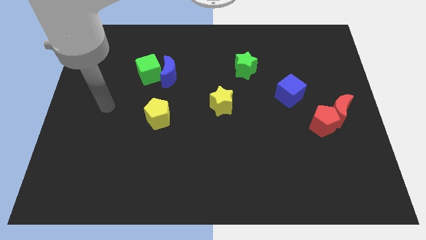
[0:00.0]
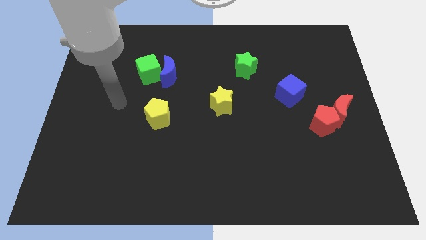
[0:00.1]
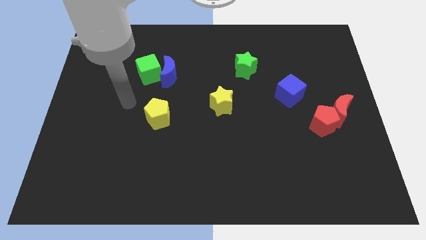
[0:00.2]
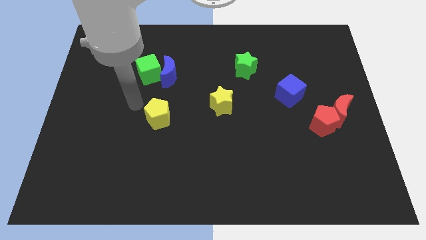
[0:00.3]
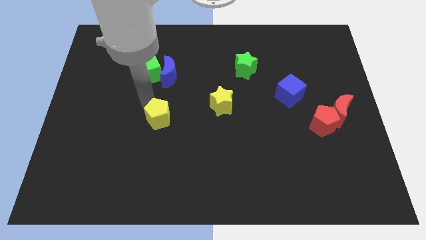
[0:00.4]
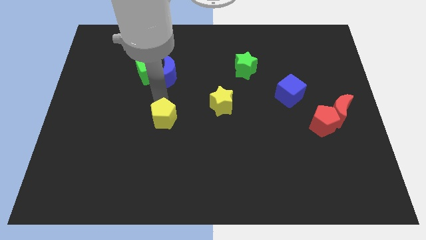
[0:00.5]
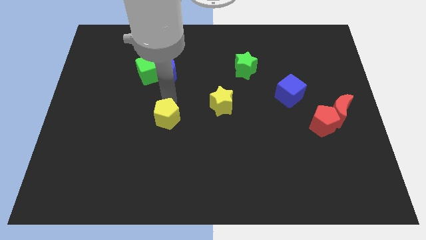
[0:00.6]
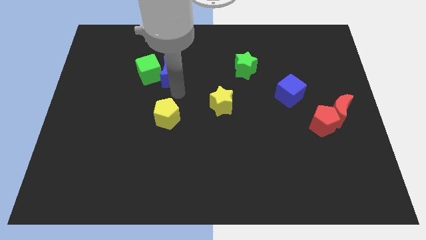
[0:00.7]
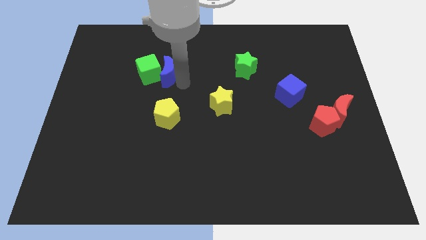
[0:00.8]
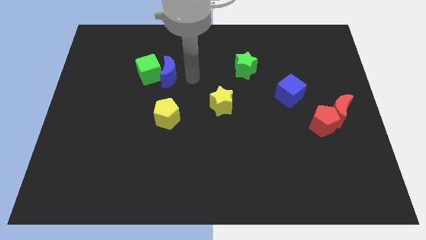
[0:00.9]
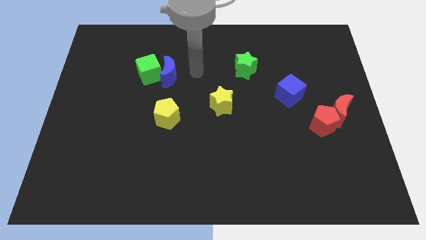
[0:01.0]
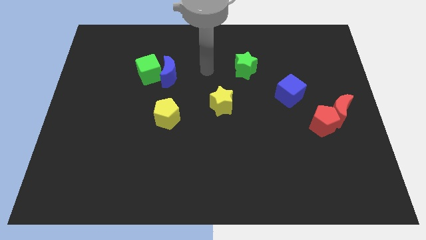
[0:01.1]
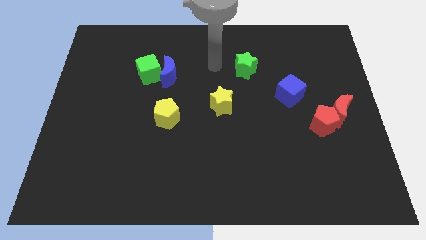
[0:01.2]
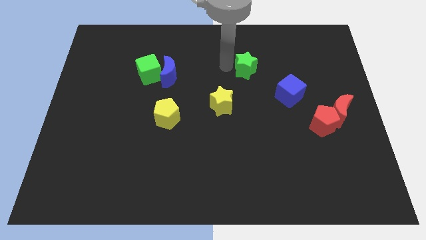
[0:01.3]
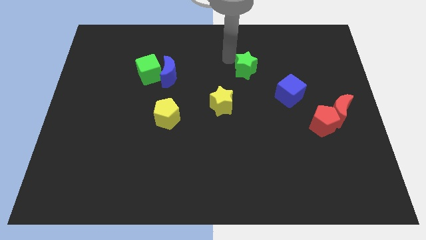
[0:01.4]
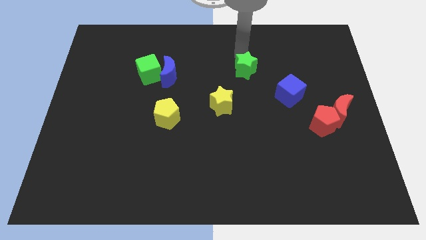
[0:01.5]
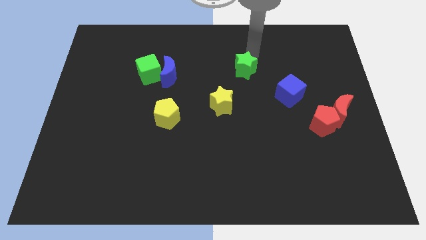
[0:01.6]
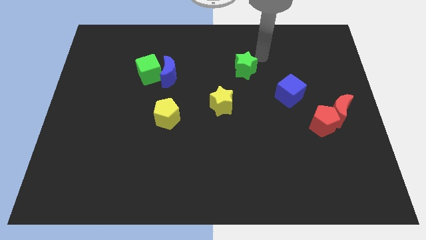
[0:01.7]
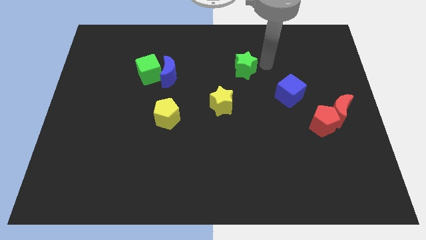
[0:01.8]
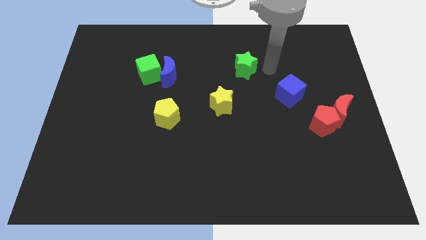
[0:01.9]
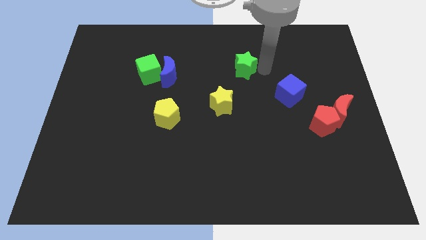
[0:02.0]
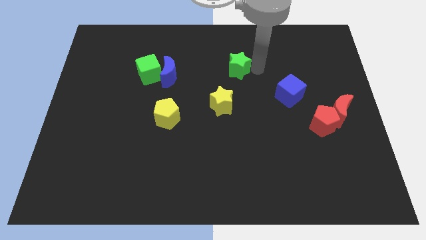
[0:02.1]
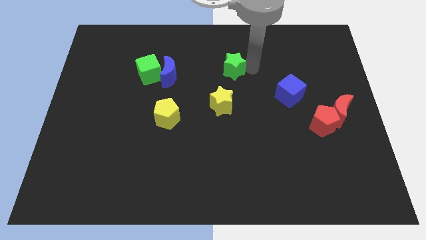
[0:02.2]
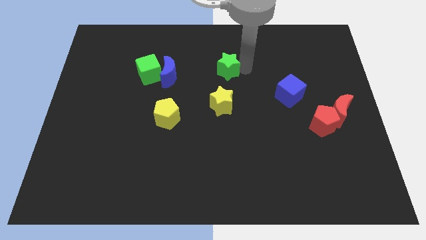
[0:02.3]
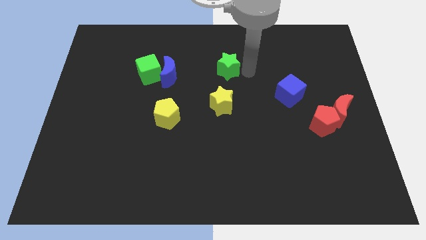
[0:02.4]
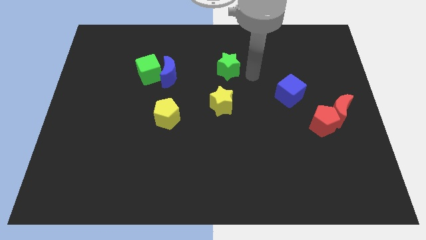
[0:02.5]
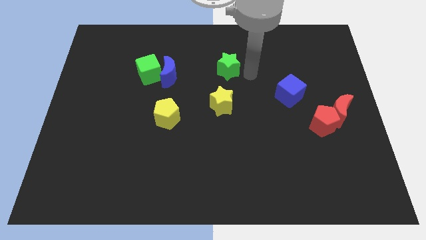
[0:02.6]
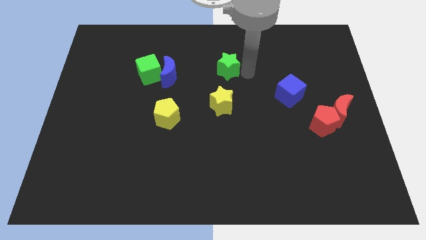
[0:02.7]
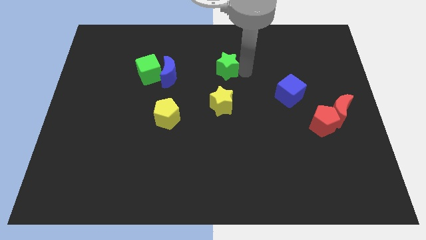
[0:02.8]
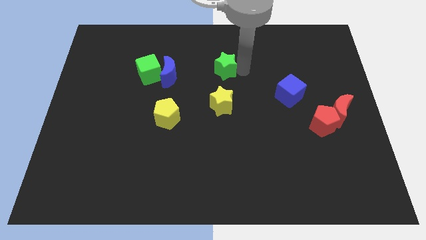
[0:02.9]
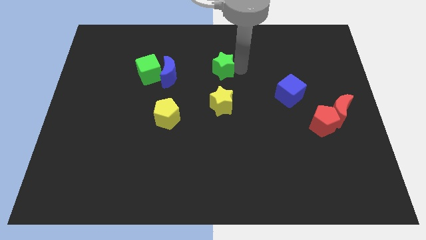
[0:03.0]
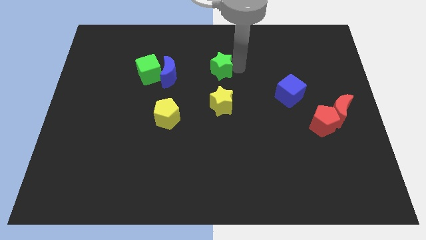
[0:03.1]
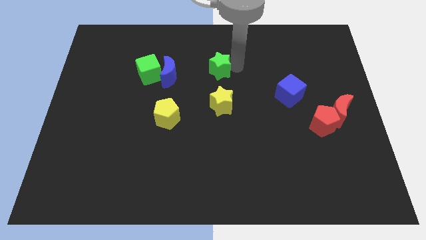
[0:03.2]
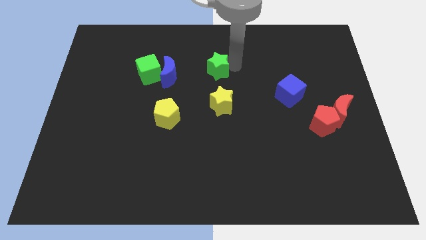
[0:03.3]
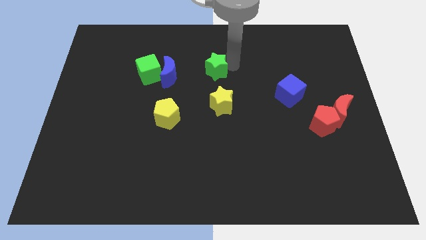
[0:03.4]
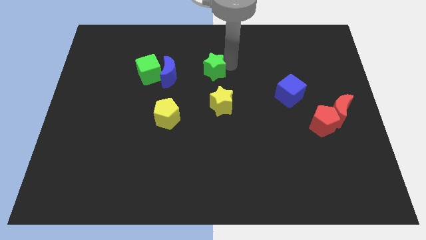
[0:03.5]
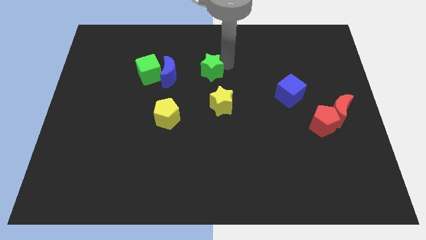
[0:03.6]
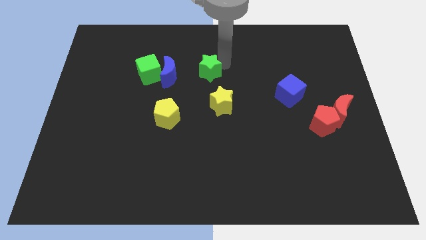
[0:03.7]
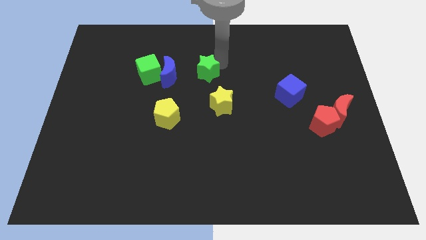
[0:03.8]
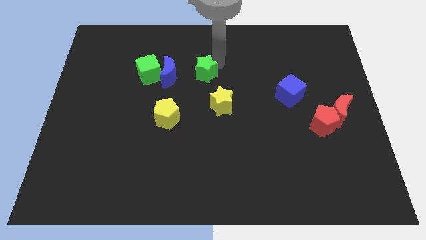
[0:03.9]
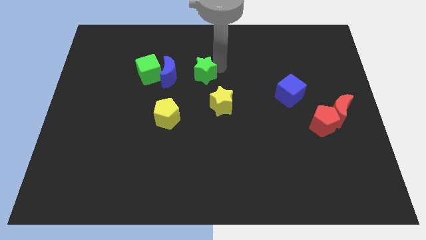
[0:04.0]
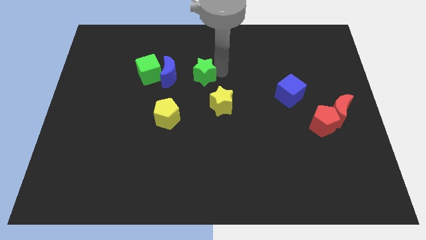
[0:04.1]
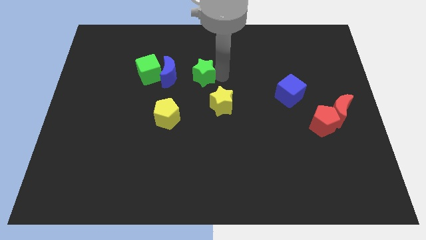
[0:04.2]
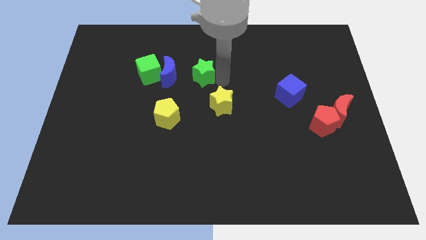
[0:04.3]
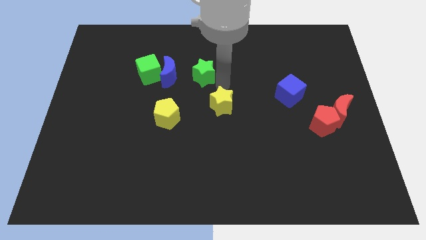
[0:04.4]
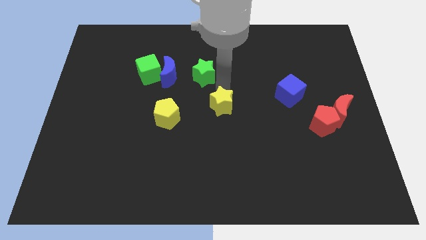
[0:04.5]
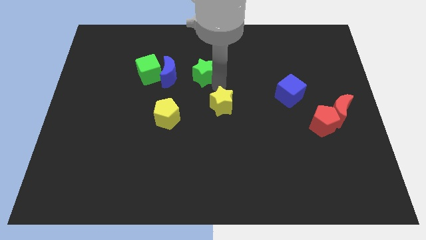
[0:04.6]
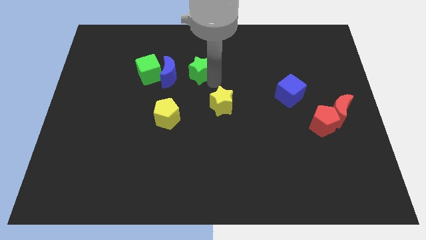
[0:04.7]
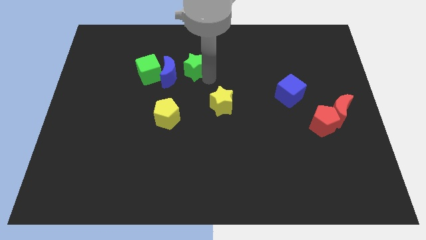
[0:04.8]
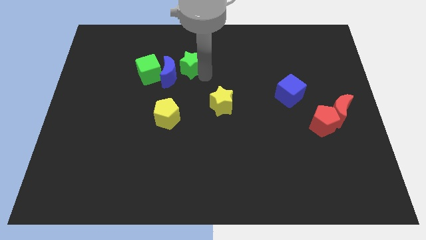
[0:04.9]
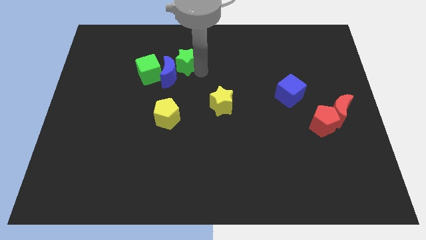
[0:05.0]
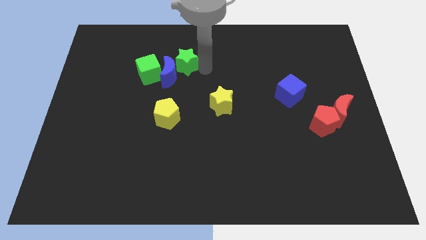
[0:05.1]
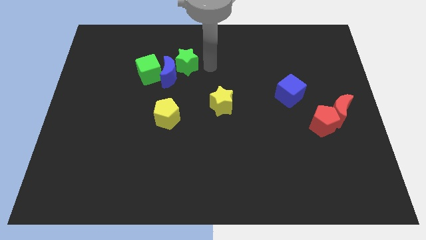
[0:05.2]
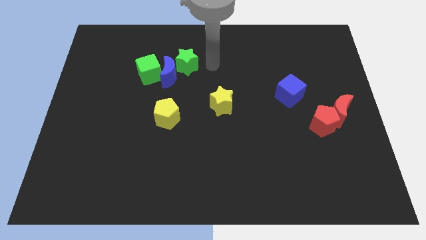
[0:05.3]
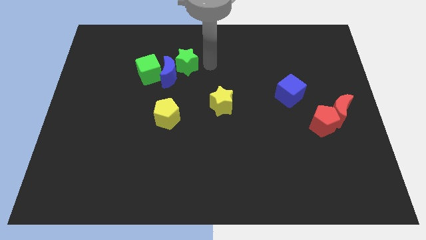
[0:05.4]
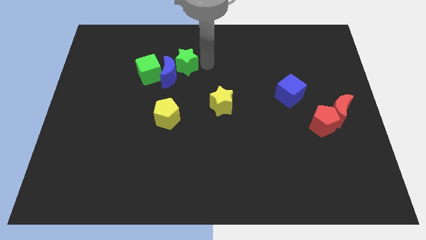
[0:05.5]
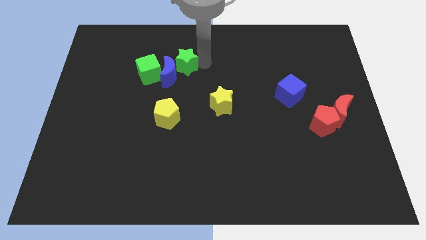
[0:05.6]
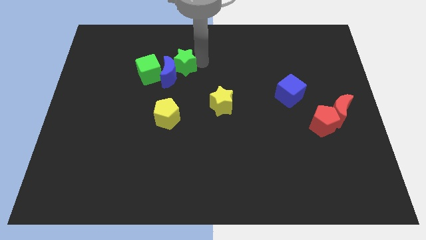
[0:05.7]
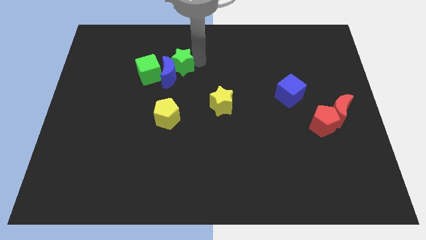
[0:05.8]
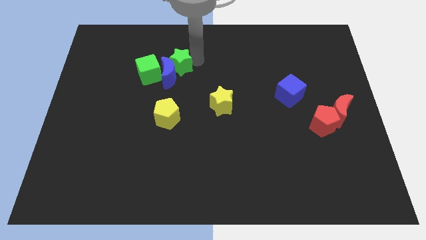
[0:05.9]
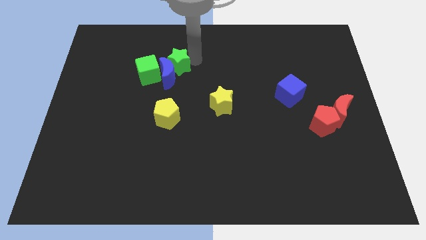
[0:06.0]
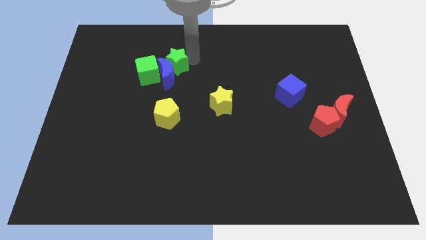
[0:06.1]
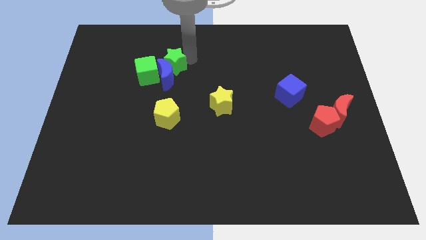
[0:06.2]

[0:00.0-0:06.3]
slide the green star to the top left of the blue moon
